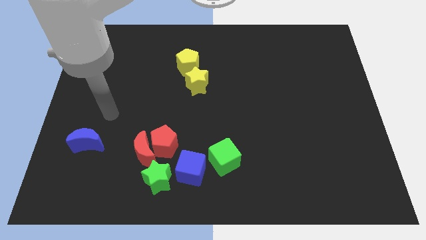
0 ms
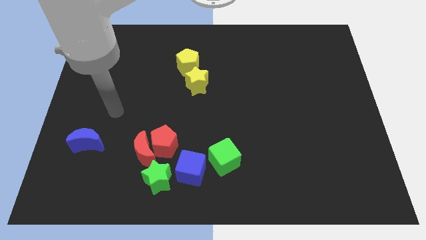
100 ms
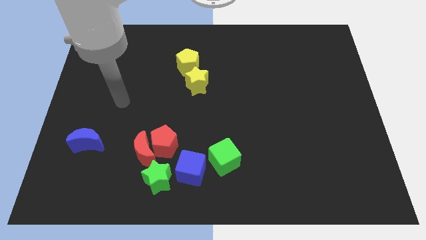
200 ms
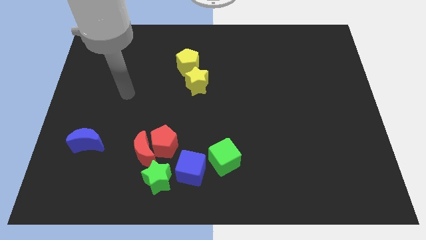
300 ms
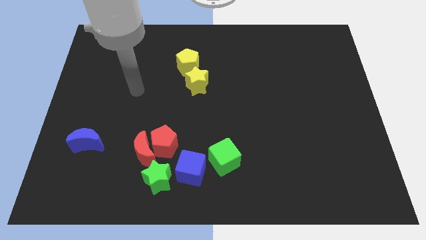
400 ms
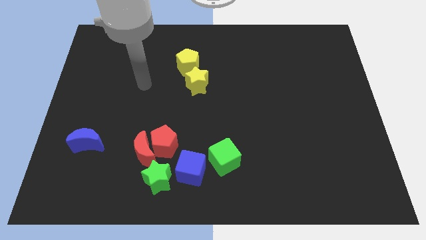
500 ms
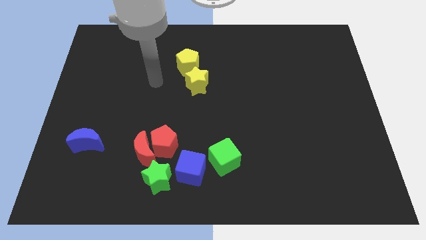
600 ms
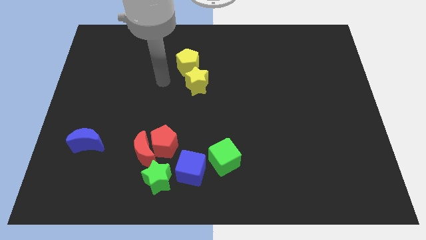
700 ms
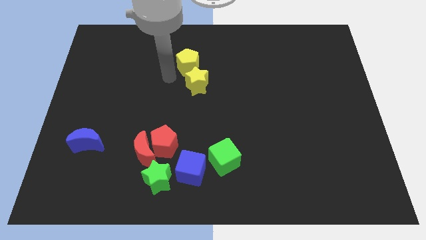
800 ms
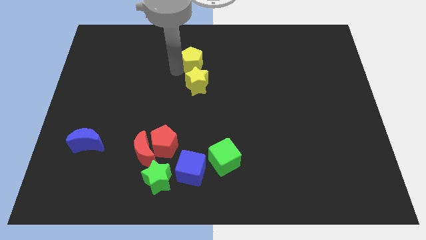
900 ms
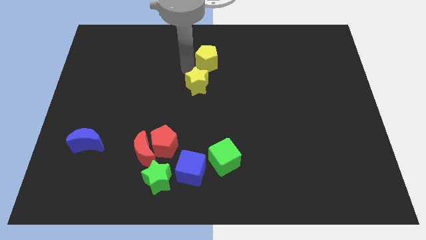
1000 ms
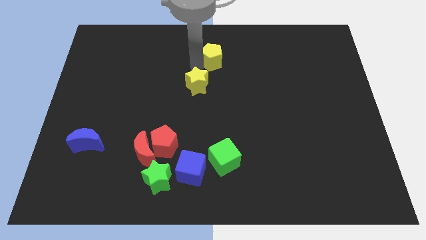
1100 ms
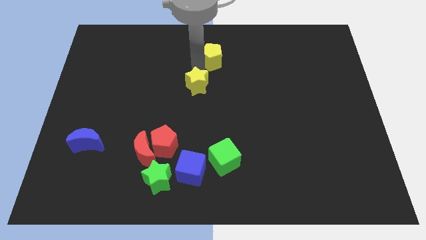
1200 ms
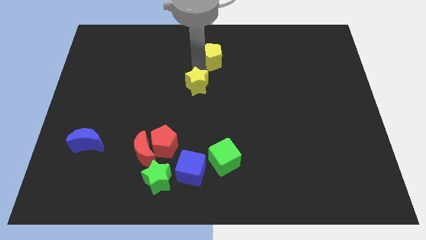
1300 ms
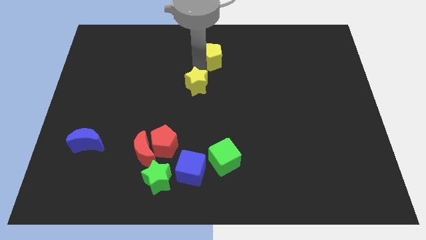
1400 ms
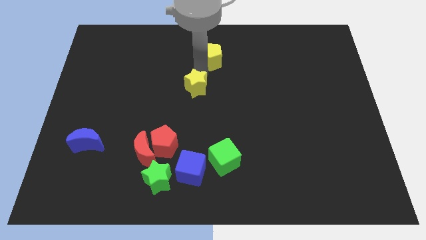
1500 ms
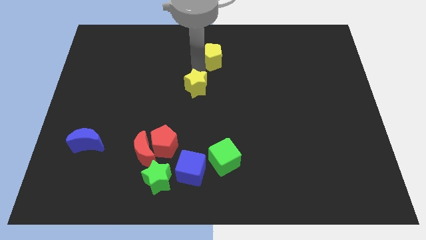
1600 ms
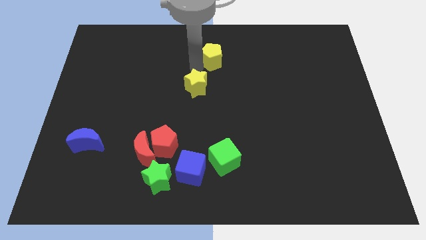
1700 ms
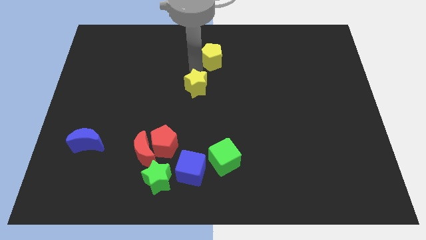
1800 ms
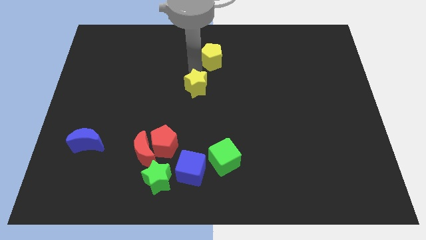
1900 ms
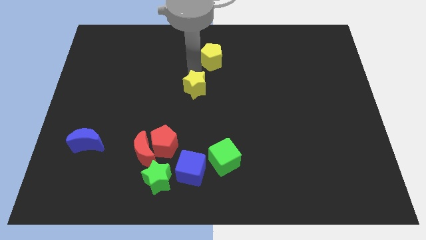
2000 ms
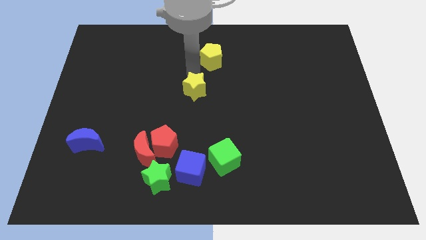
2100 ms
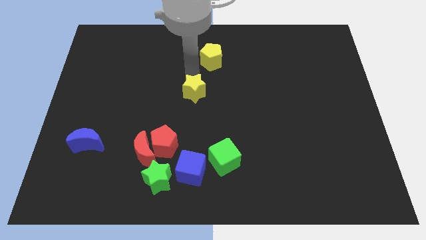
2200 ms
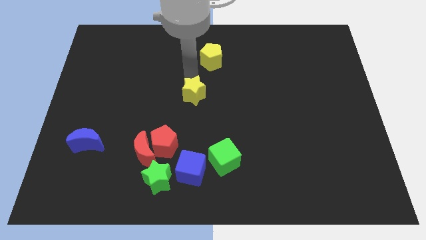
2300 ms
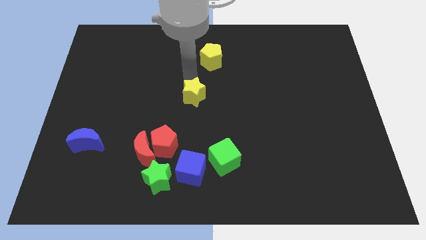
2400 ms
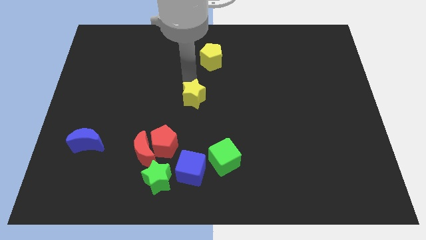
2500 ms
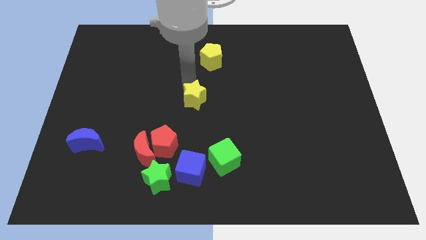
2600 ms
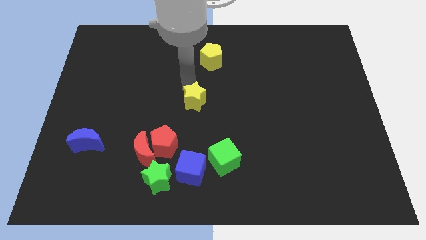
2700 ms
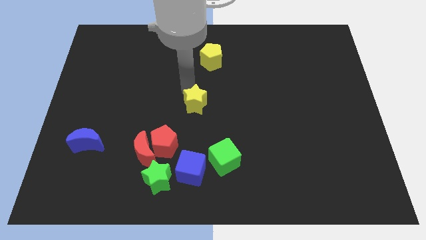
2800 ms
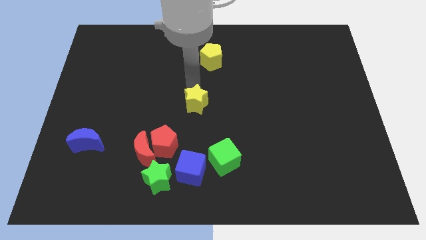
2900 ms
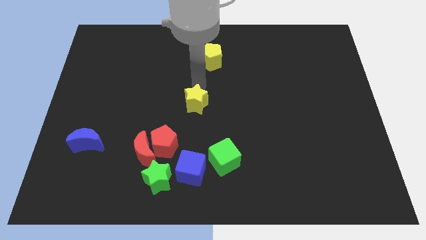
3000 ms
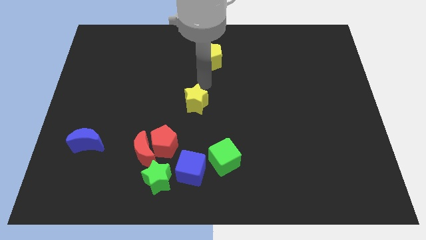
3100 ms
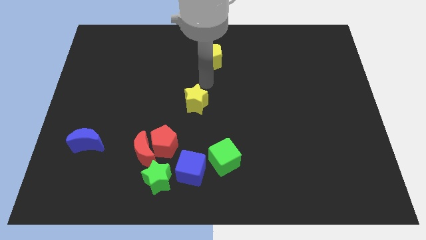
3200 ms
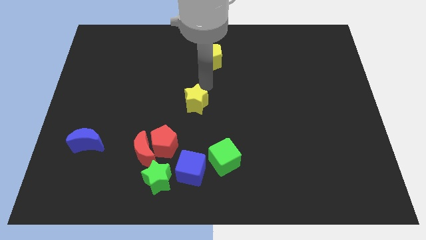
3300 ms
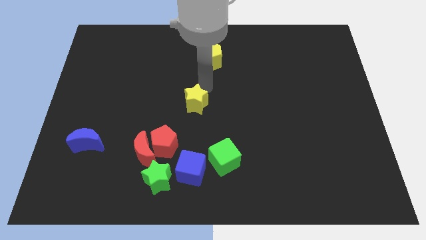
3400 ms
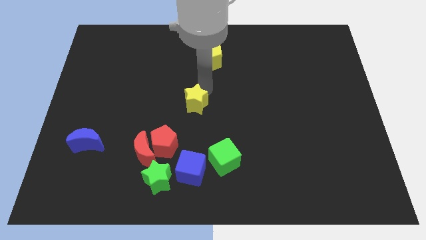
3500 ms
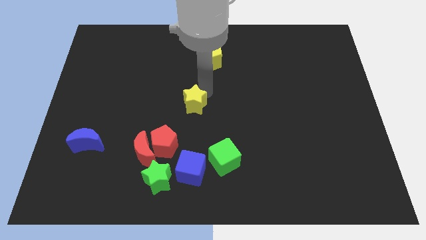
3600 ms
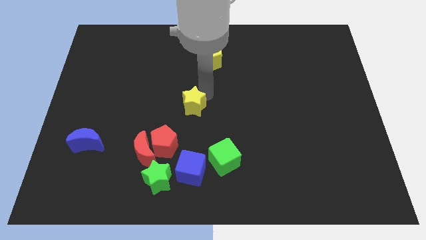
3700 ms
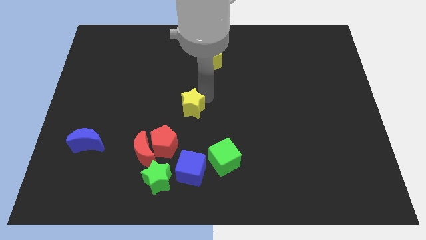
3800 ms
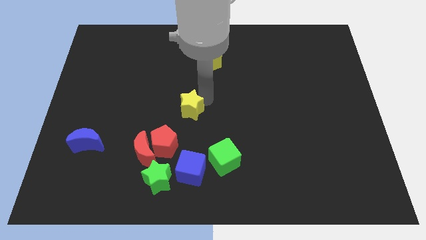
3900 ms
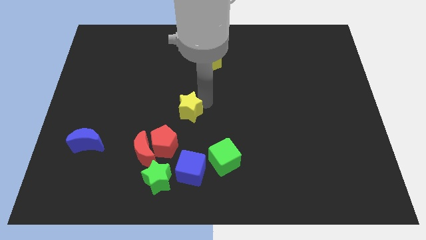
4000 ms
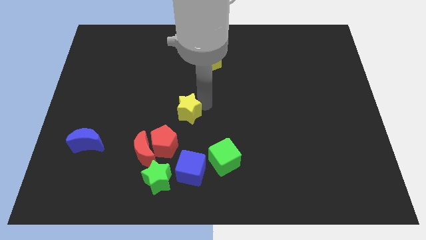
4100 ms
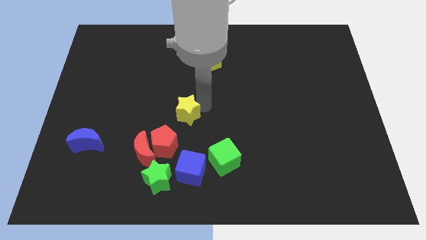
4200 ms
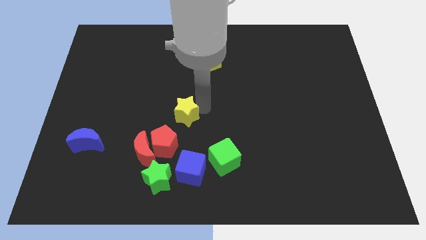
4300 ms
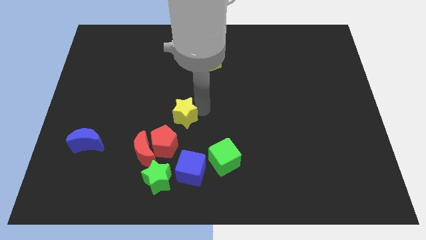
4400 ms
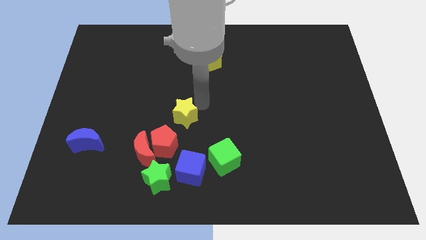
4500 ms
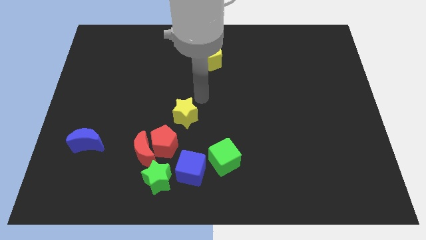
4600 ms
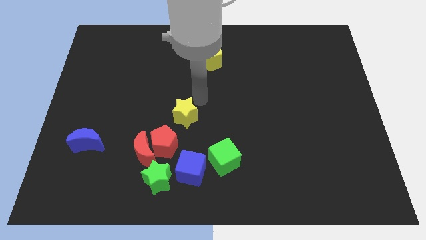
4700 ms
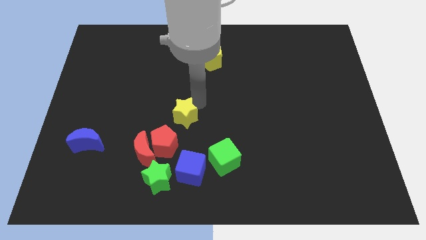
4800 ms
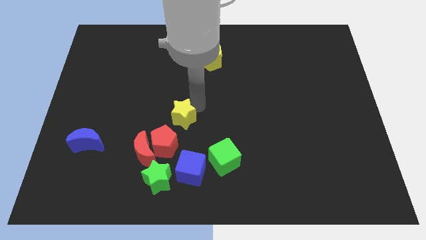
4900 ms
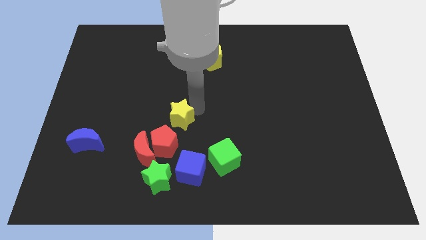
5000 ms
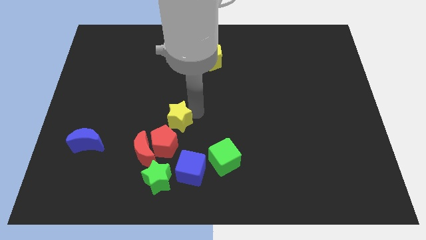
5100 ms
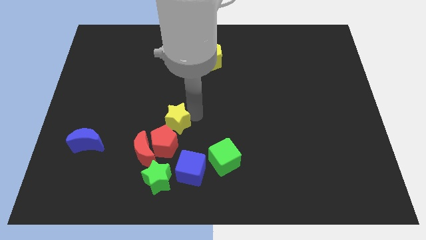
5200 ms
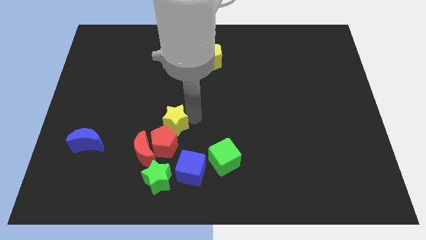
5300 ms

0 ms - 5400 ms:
slide the yellow star close to the red pentagon

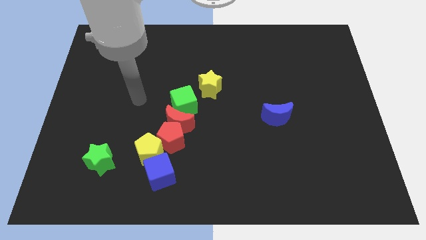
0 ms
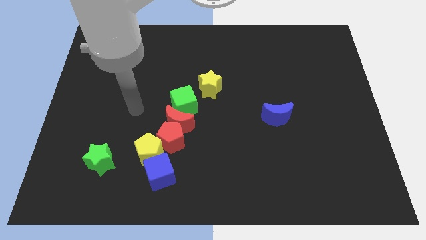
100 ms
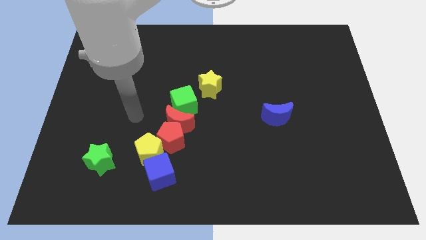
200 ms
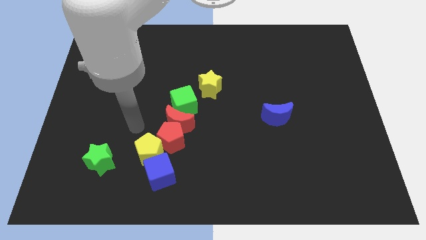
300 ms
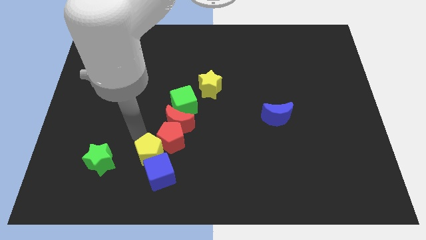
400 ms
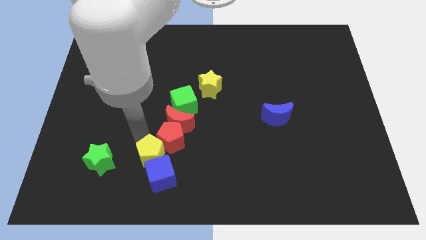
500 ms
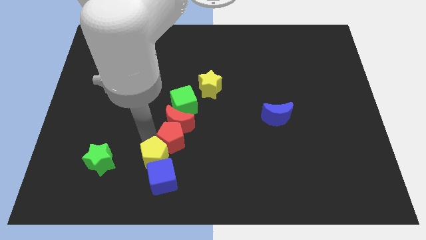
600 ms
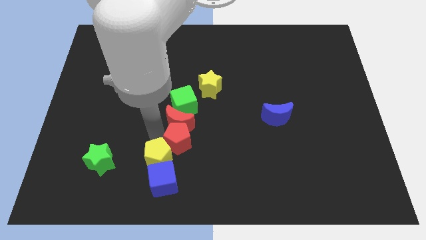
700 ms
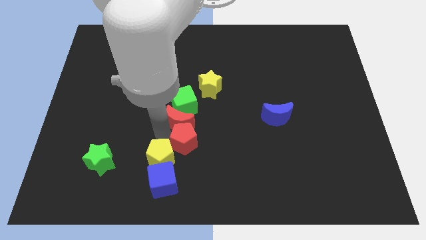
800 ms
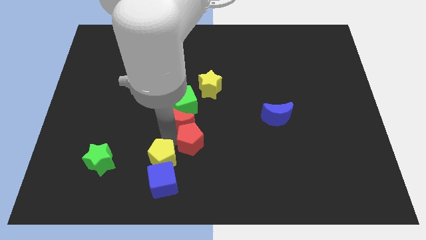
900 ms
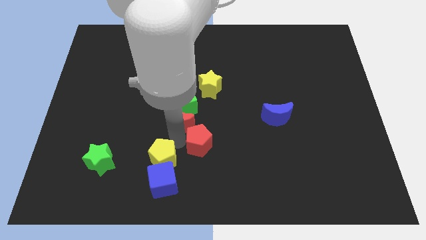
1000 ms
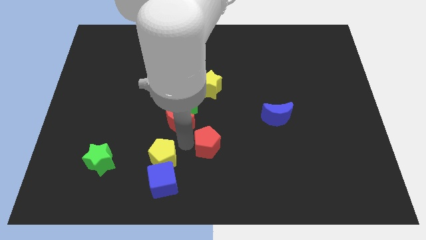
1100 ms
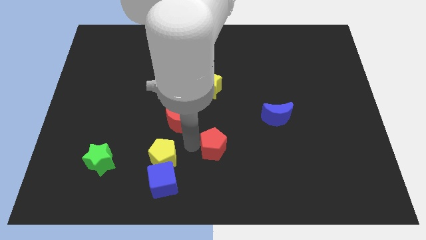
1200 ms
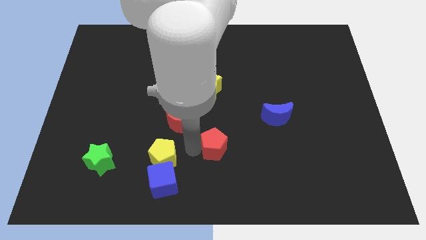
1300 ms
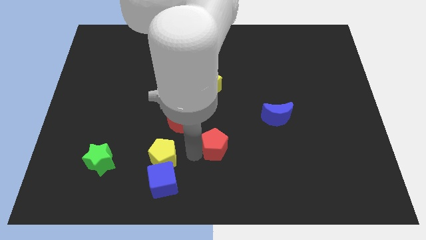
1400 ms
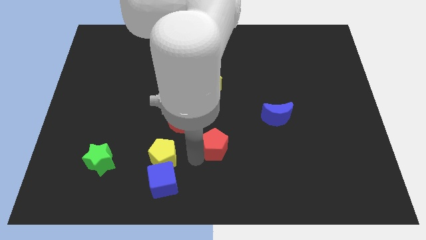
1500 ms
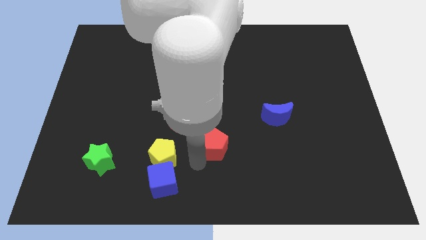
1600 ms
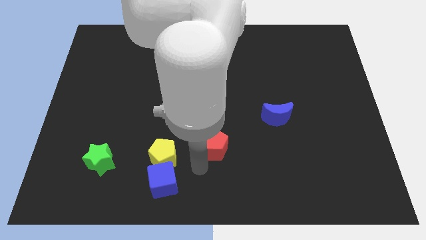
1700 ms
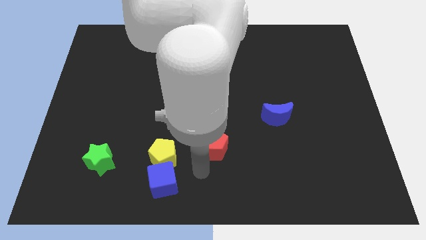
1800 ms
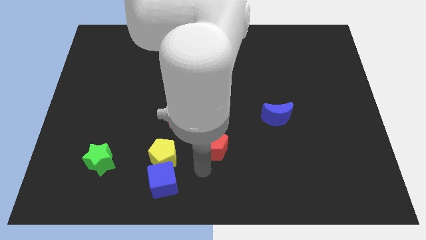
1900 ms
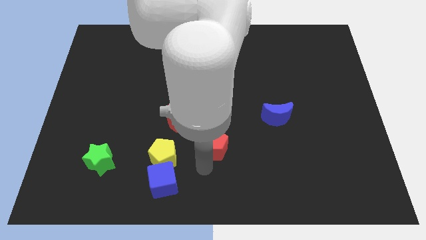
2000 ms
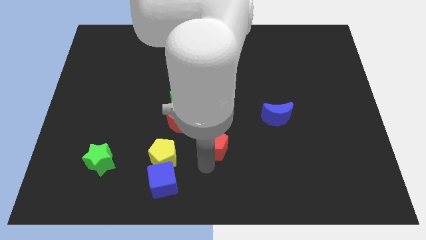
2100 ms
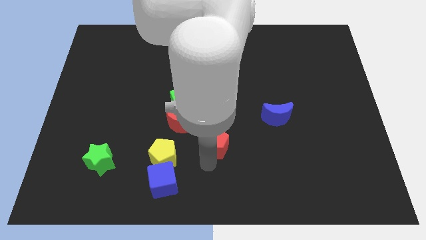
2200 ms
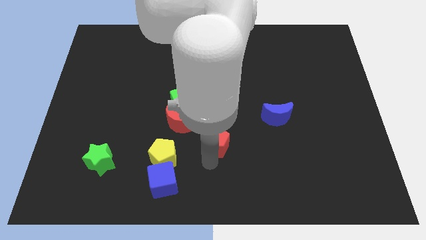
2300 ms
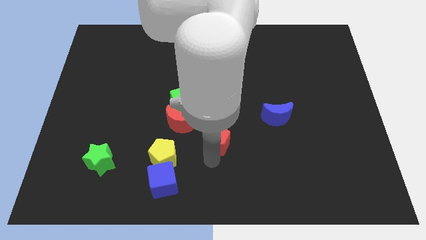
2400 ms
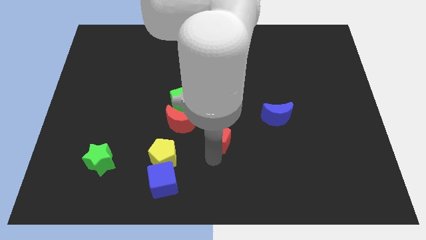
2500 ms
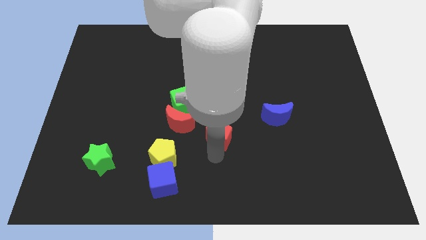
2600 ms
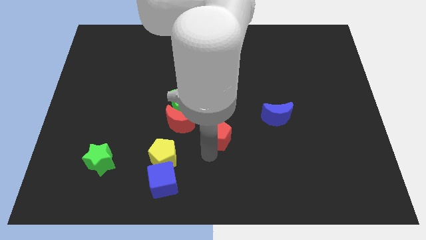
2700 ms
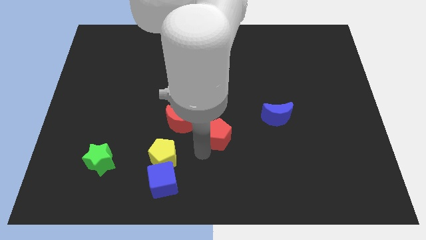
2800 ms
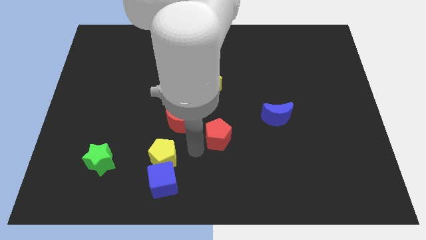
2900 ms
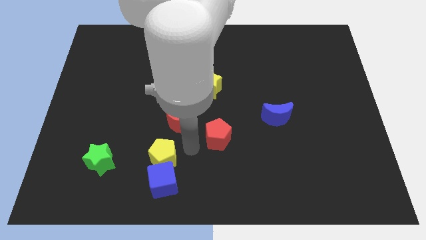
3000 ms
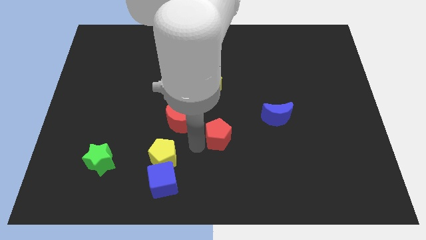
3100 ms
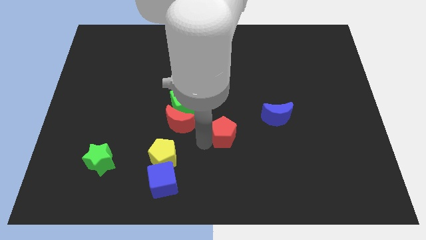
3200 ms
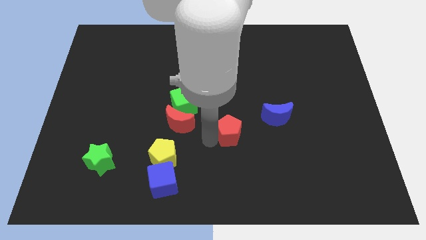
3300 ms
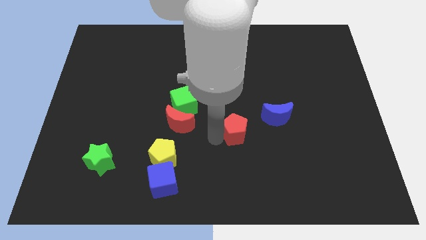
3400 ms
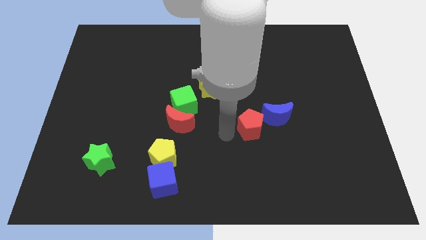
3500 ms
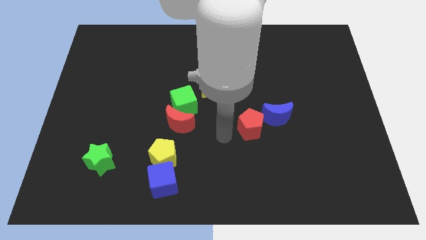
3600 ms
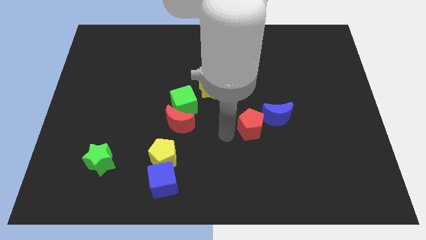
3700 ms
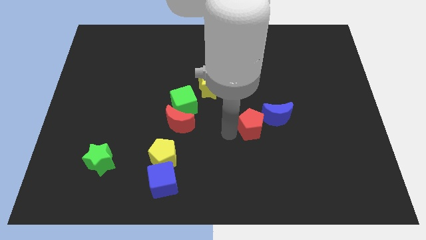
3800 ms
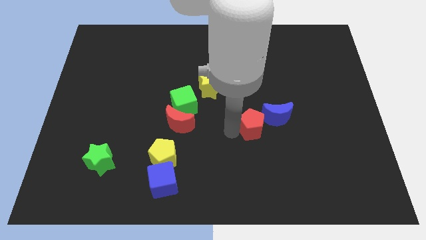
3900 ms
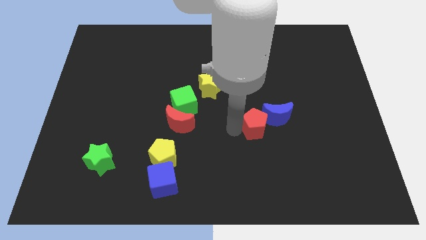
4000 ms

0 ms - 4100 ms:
slide the red pentagon to the blue moon
